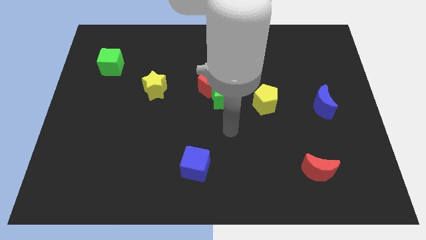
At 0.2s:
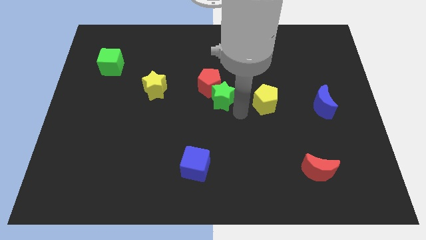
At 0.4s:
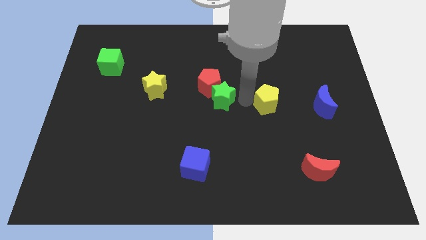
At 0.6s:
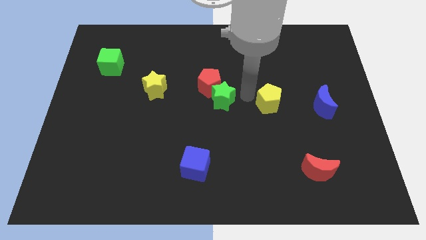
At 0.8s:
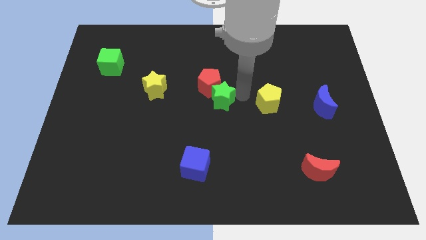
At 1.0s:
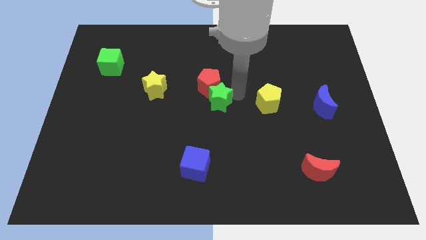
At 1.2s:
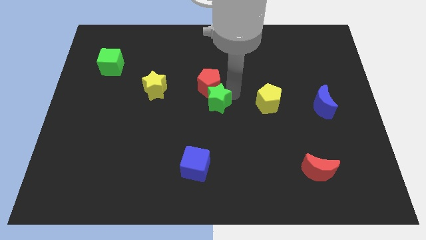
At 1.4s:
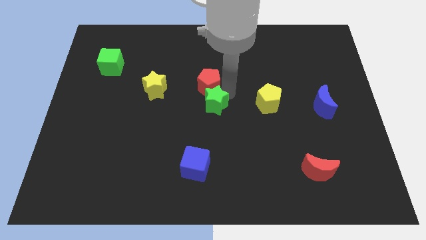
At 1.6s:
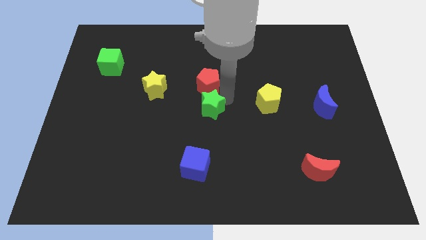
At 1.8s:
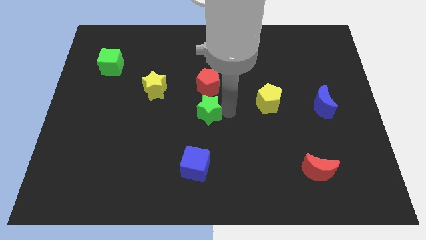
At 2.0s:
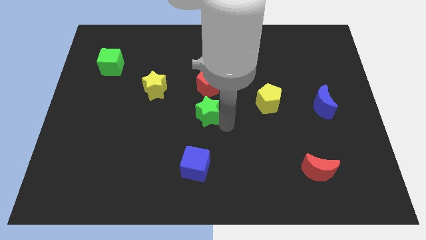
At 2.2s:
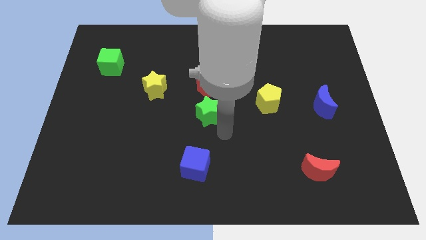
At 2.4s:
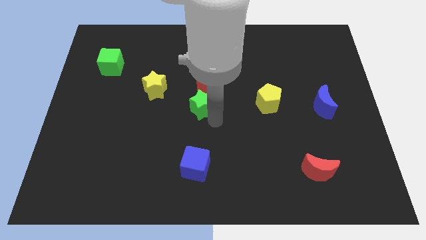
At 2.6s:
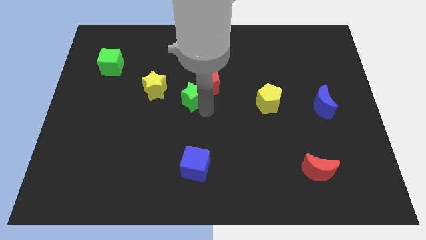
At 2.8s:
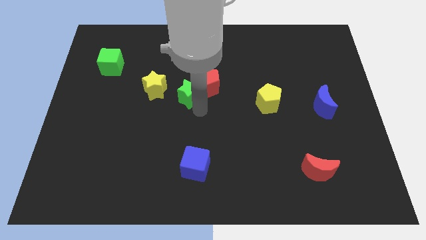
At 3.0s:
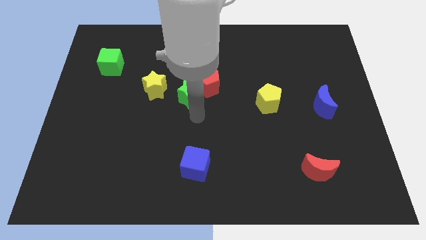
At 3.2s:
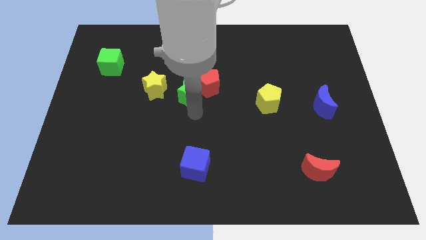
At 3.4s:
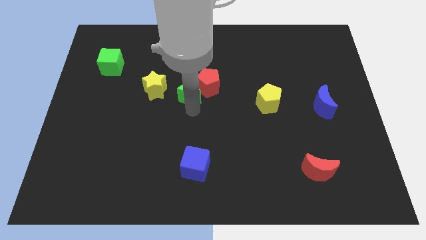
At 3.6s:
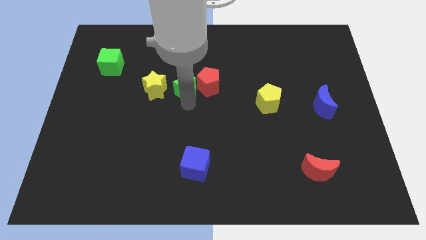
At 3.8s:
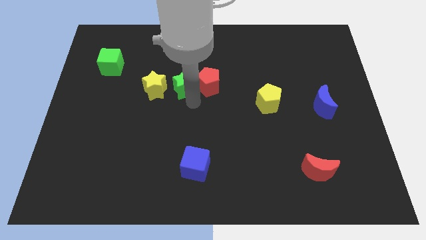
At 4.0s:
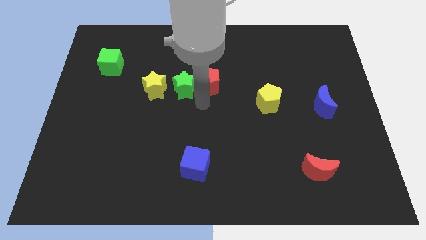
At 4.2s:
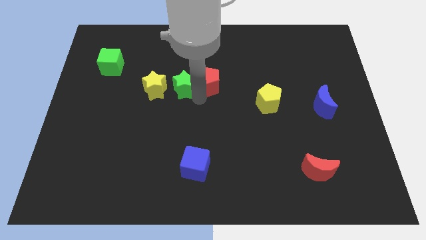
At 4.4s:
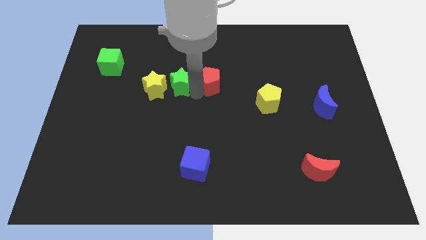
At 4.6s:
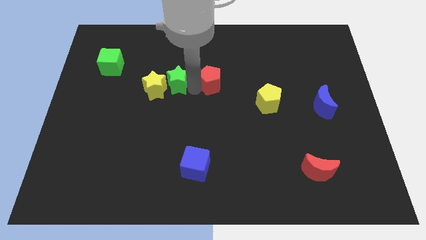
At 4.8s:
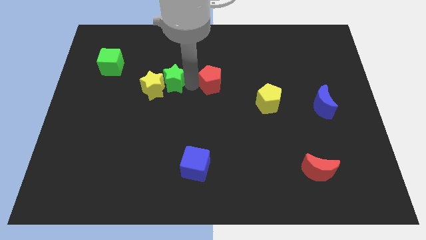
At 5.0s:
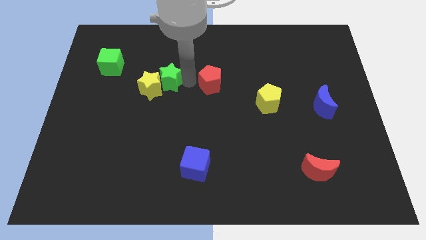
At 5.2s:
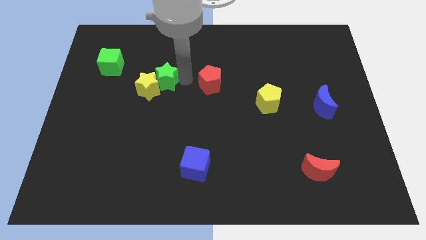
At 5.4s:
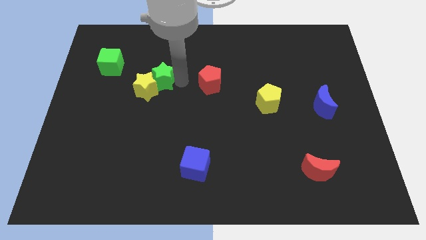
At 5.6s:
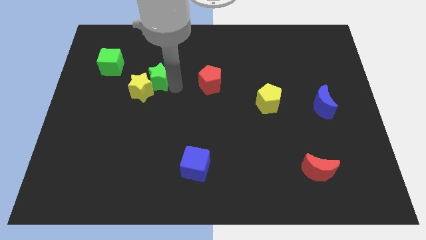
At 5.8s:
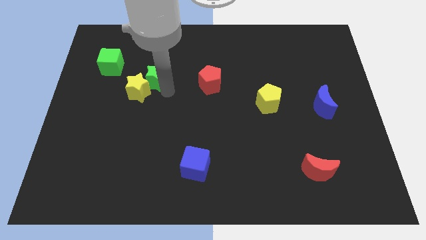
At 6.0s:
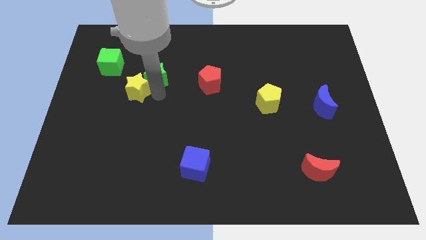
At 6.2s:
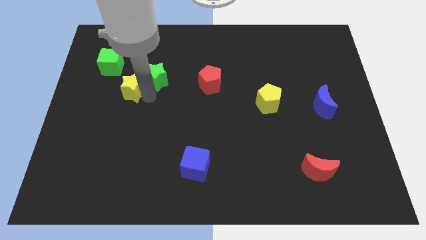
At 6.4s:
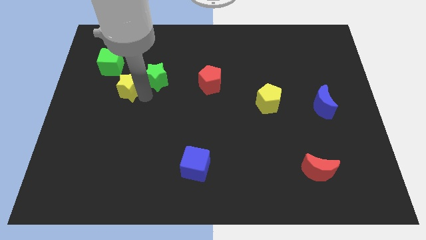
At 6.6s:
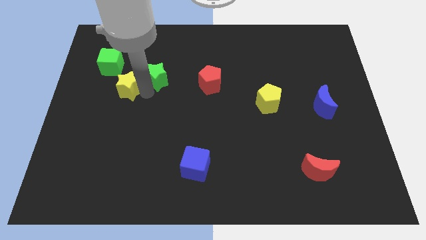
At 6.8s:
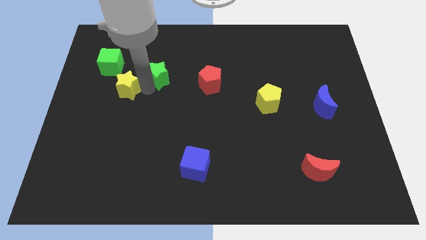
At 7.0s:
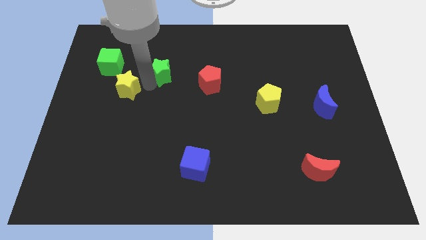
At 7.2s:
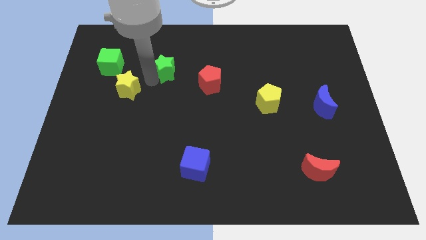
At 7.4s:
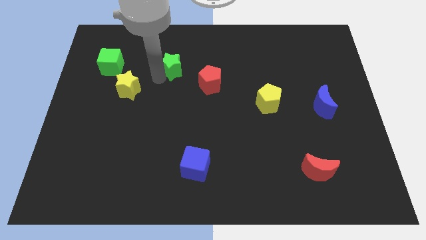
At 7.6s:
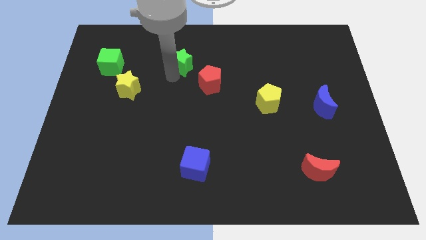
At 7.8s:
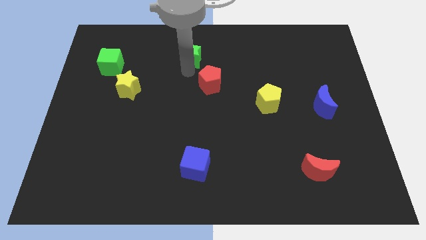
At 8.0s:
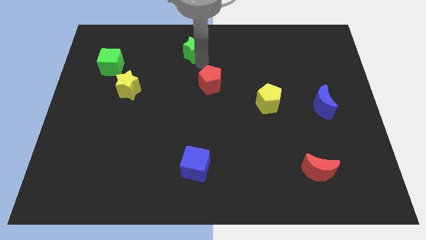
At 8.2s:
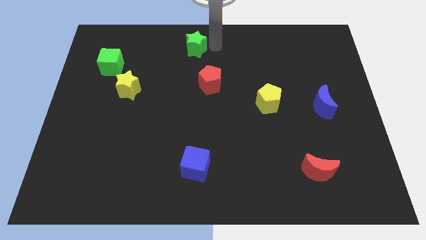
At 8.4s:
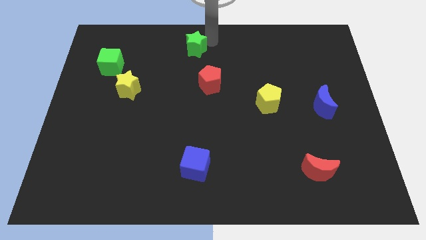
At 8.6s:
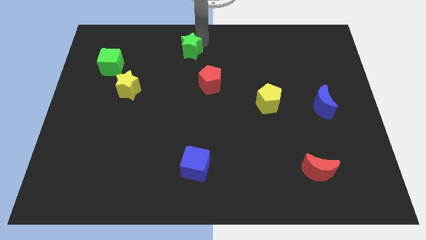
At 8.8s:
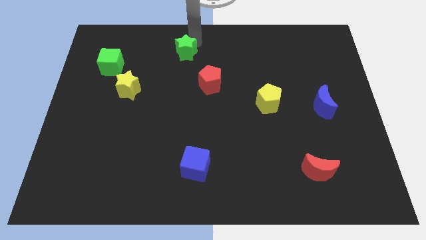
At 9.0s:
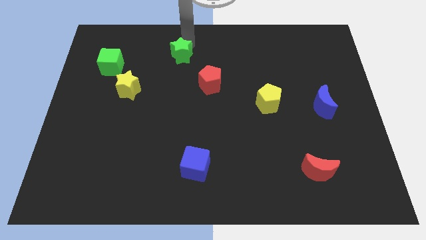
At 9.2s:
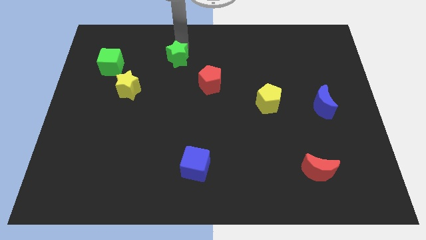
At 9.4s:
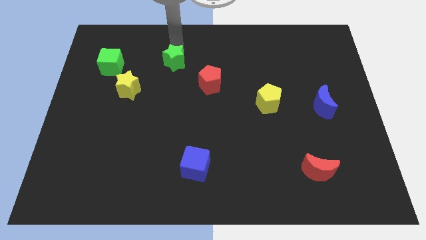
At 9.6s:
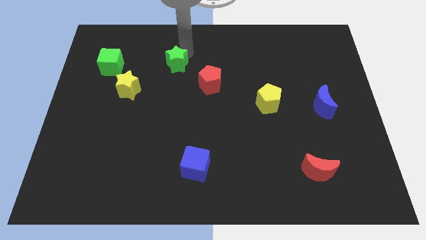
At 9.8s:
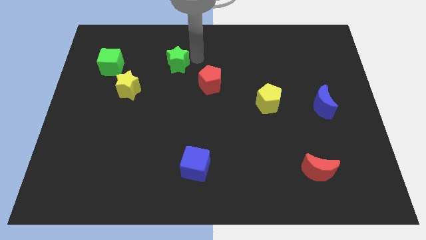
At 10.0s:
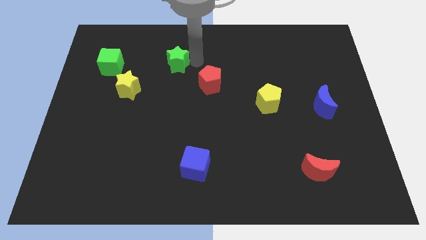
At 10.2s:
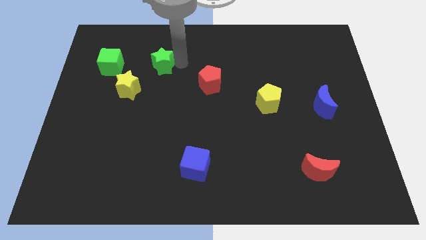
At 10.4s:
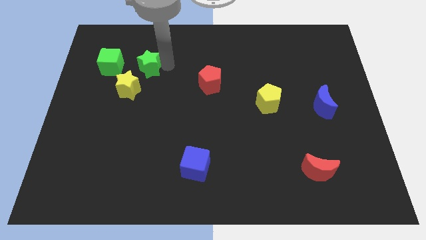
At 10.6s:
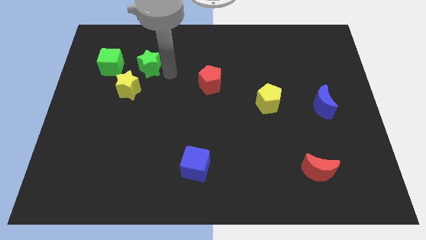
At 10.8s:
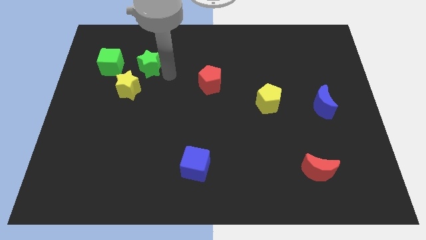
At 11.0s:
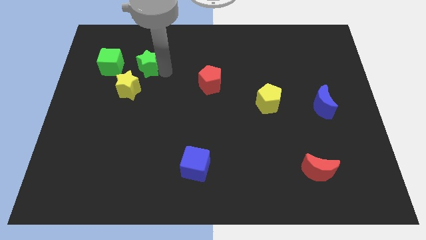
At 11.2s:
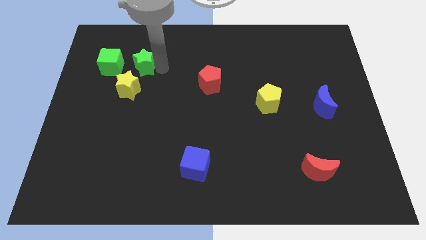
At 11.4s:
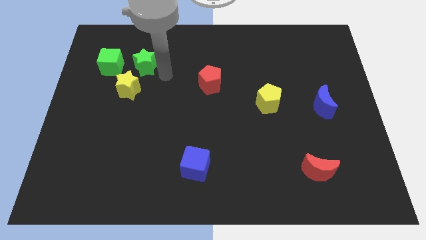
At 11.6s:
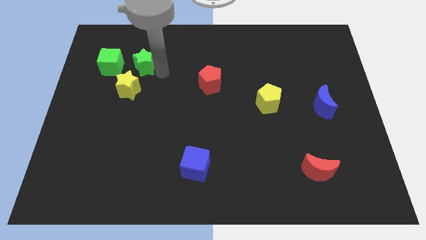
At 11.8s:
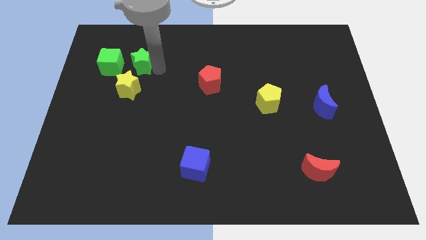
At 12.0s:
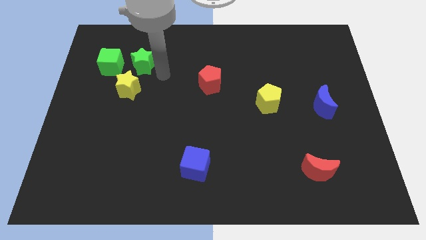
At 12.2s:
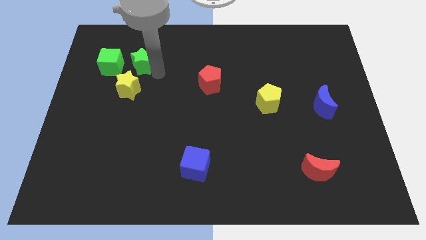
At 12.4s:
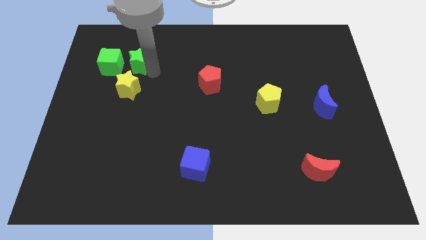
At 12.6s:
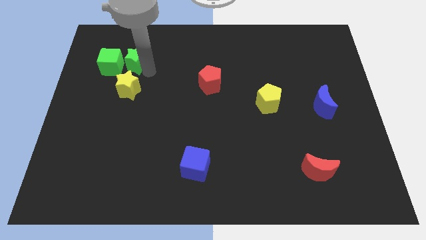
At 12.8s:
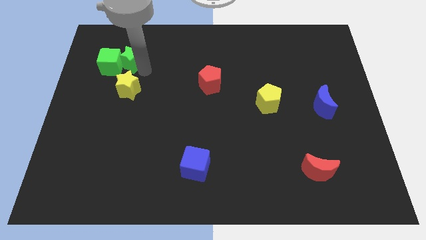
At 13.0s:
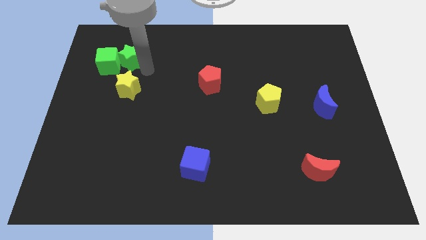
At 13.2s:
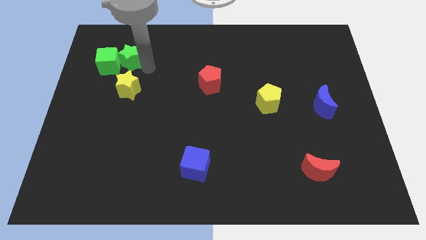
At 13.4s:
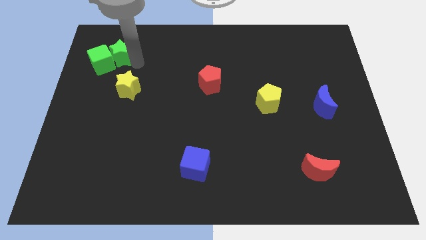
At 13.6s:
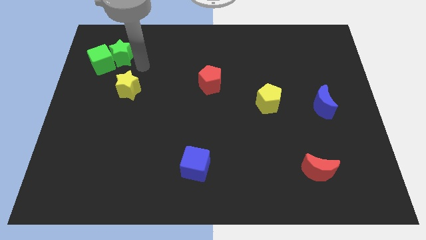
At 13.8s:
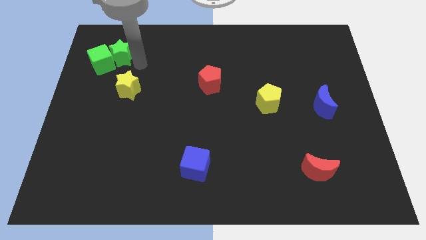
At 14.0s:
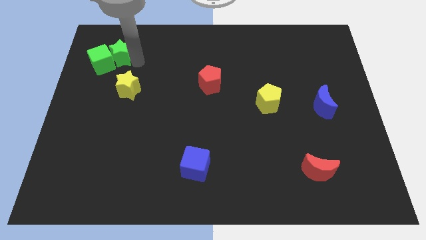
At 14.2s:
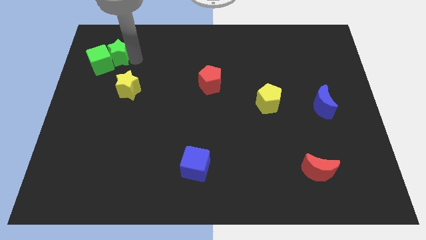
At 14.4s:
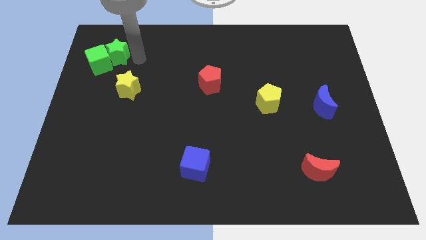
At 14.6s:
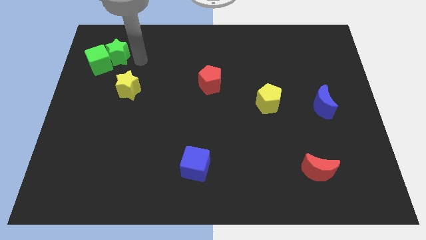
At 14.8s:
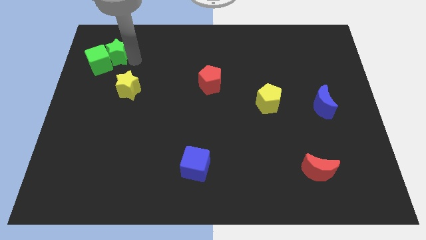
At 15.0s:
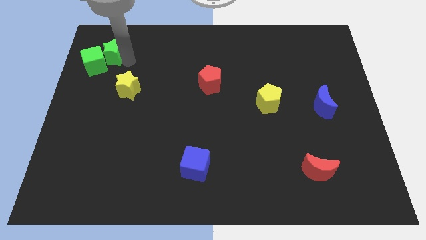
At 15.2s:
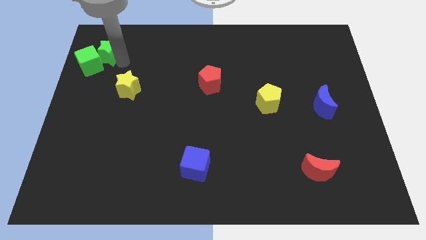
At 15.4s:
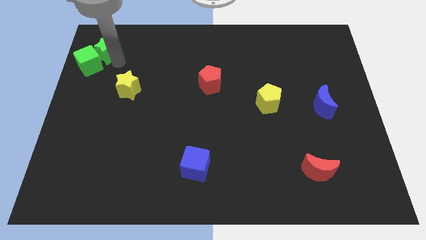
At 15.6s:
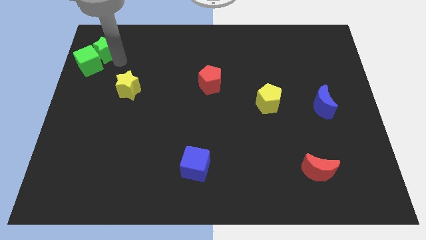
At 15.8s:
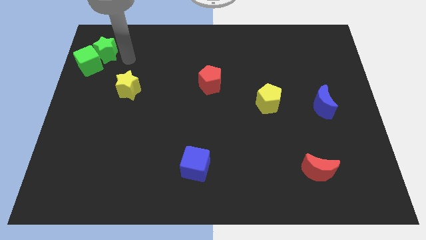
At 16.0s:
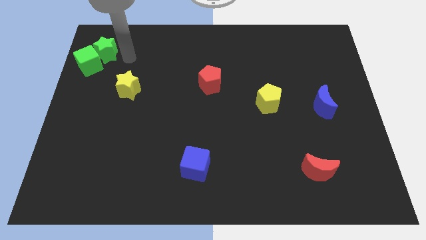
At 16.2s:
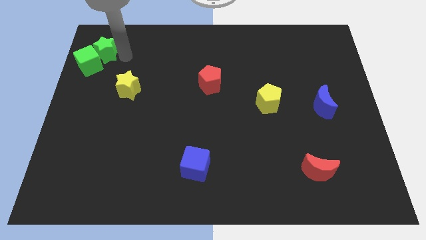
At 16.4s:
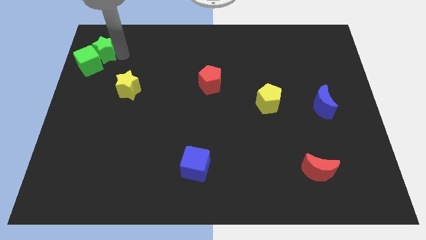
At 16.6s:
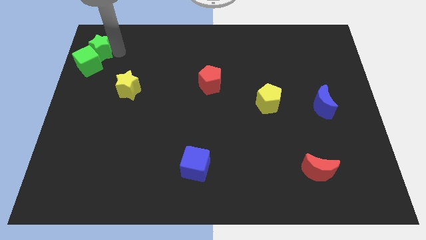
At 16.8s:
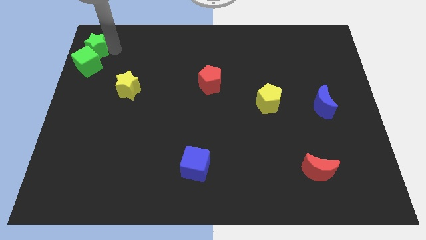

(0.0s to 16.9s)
move the green star to the top left corner
